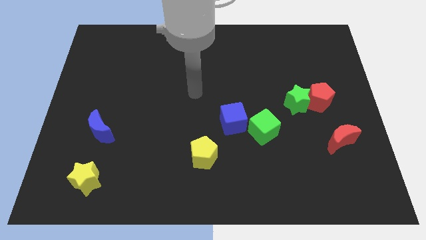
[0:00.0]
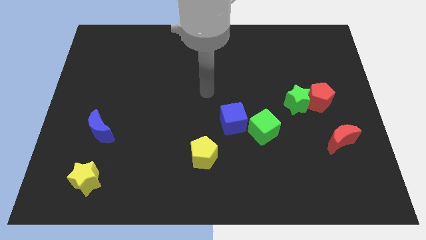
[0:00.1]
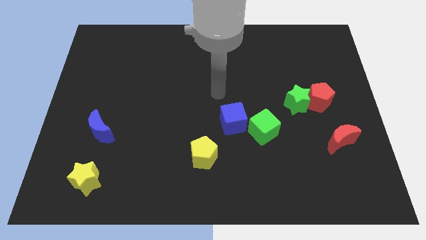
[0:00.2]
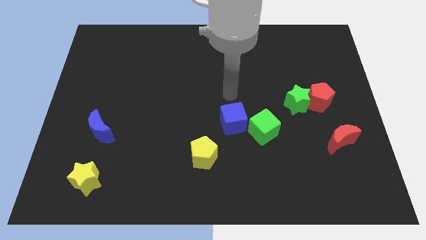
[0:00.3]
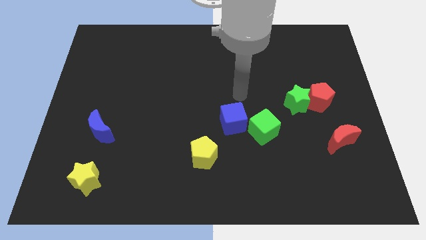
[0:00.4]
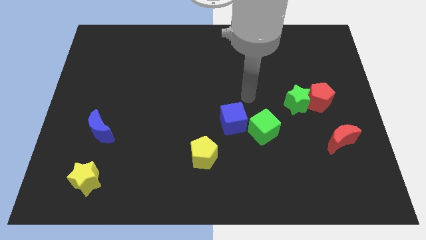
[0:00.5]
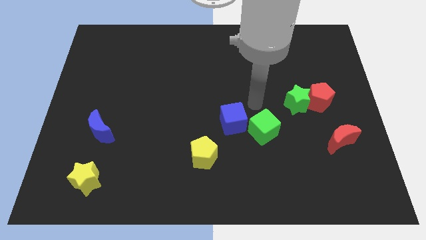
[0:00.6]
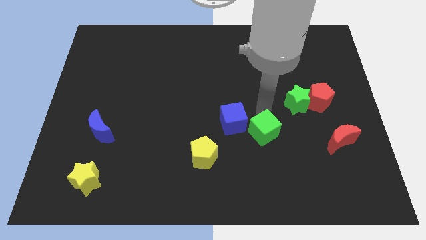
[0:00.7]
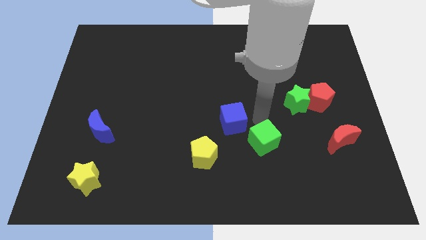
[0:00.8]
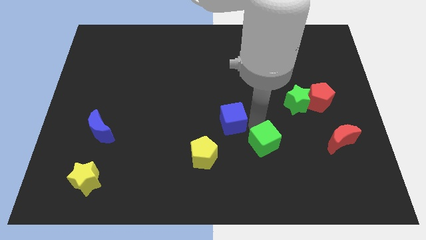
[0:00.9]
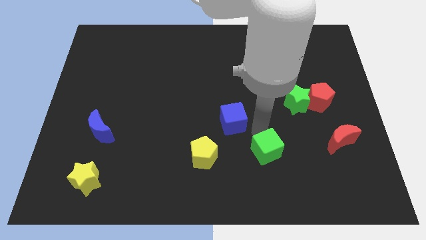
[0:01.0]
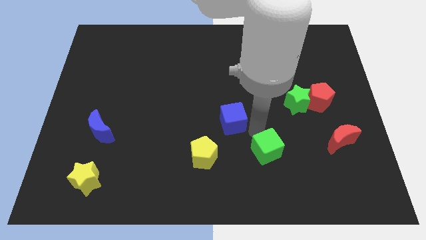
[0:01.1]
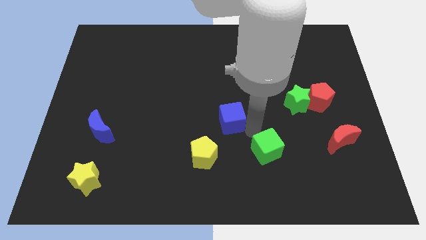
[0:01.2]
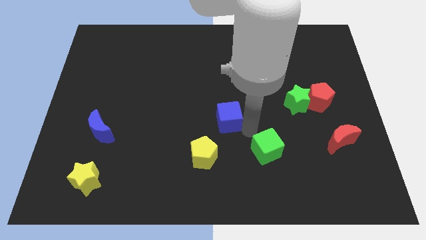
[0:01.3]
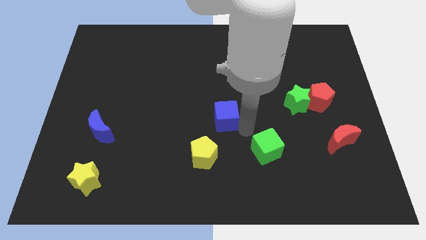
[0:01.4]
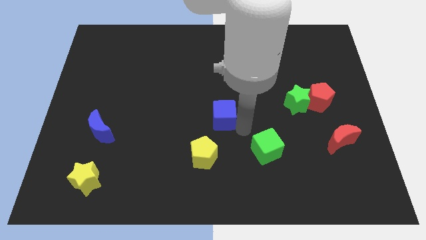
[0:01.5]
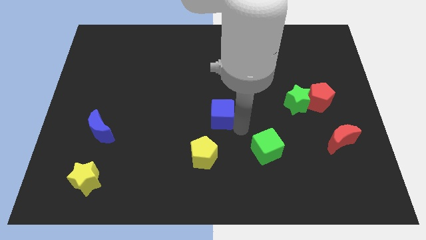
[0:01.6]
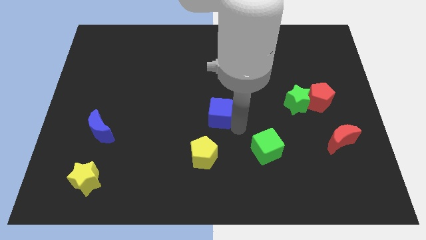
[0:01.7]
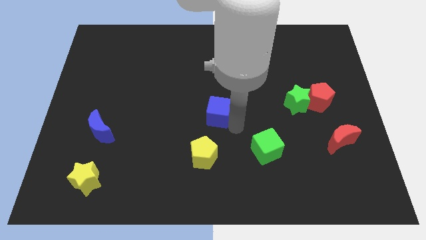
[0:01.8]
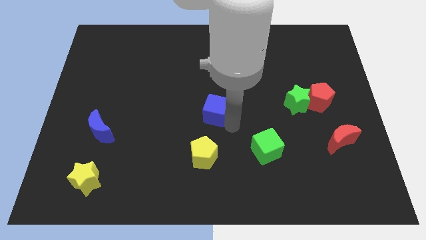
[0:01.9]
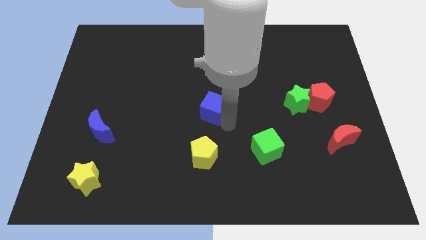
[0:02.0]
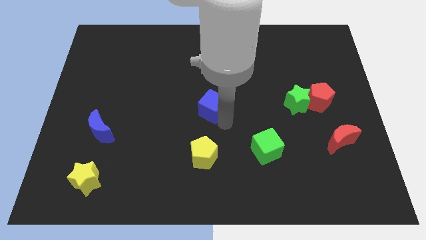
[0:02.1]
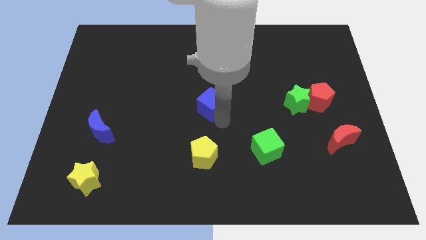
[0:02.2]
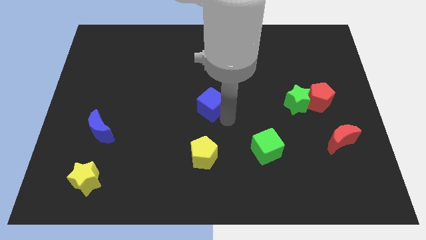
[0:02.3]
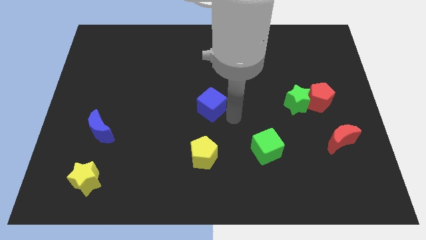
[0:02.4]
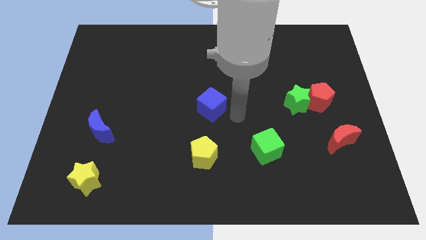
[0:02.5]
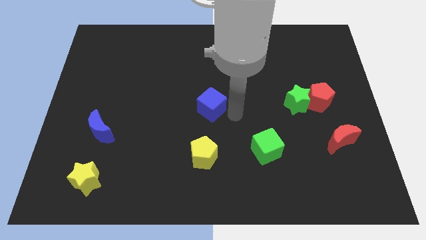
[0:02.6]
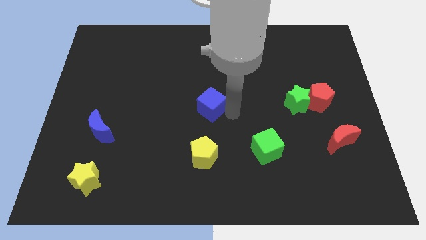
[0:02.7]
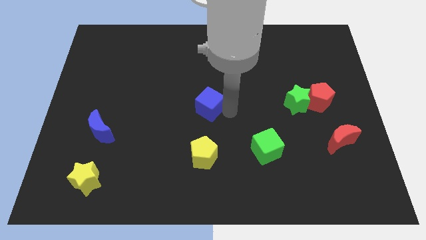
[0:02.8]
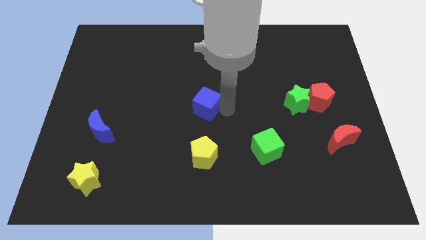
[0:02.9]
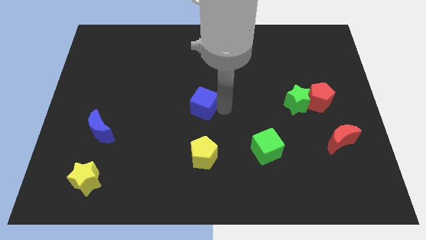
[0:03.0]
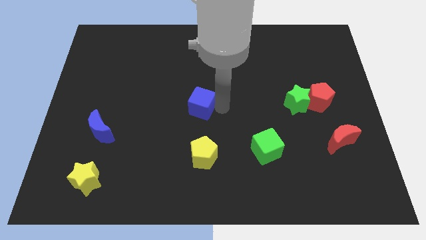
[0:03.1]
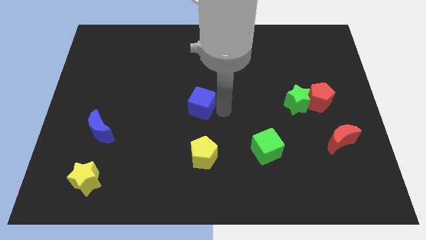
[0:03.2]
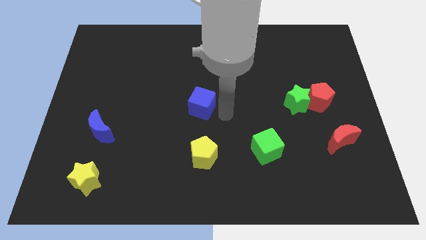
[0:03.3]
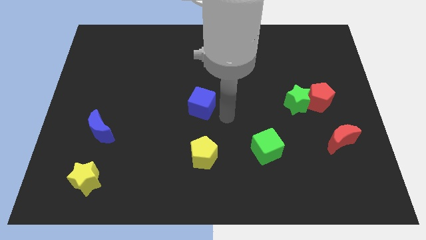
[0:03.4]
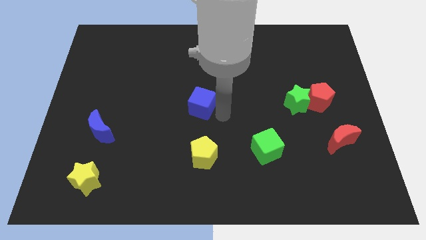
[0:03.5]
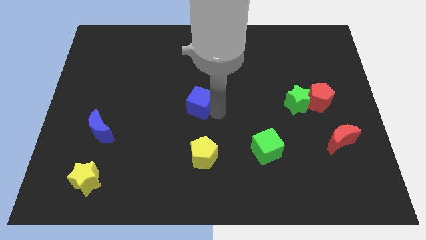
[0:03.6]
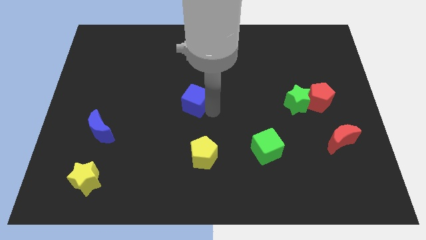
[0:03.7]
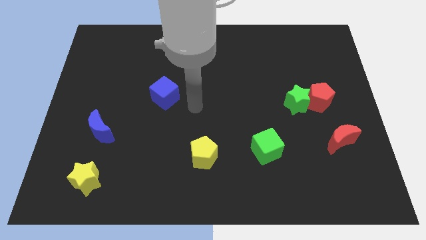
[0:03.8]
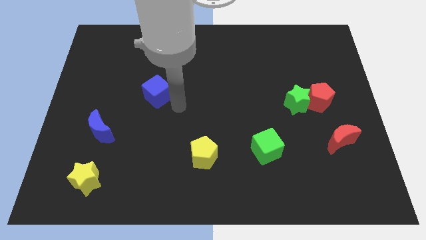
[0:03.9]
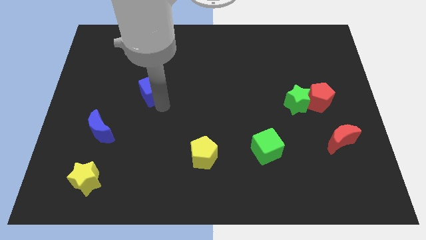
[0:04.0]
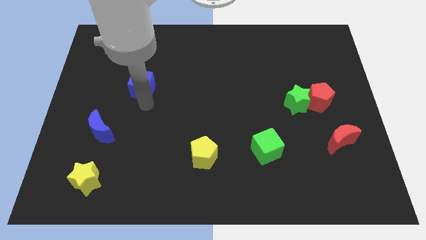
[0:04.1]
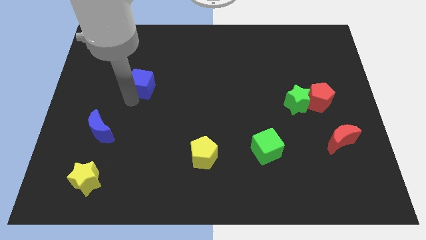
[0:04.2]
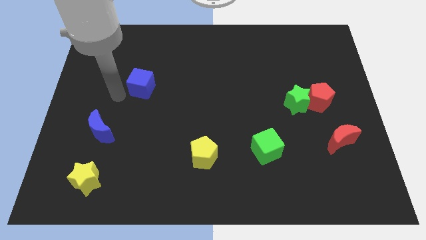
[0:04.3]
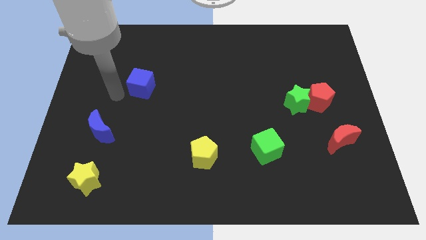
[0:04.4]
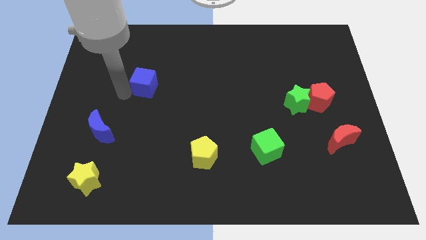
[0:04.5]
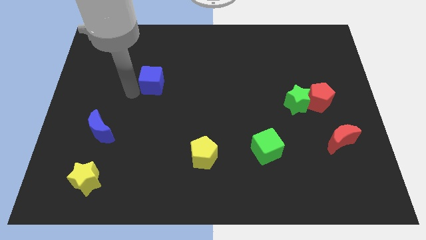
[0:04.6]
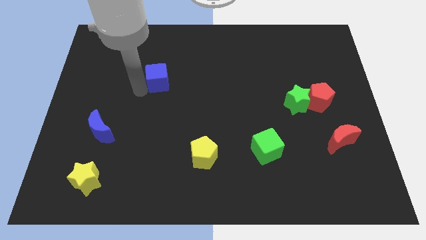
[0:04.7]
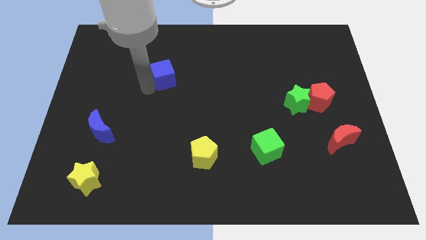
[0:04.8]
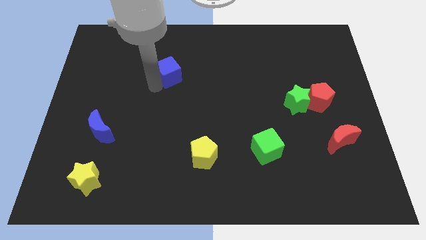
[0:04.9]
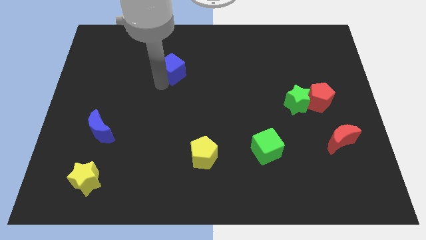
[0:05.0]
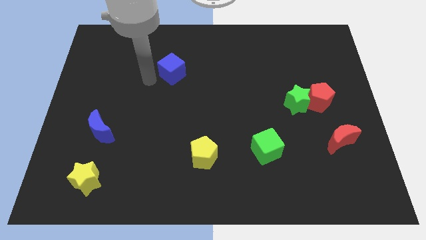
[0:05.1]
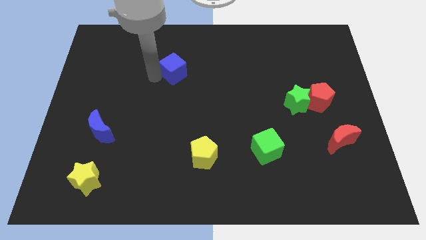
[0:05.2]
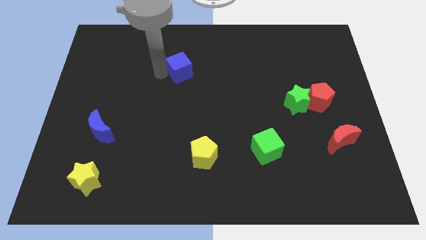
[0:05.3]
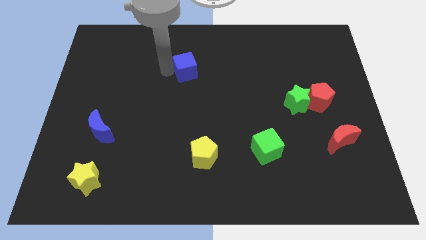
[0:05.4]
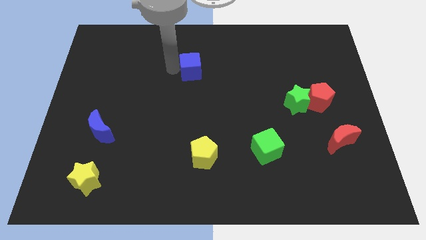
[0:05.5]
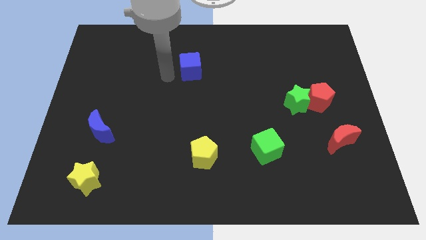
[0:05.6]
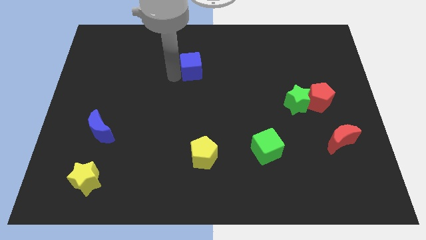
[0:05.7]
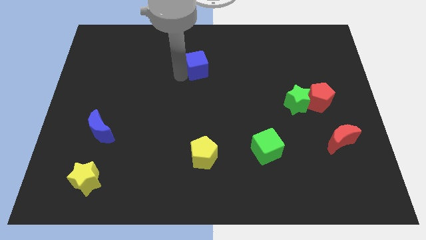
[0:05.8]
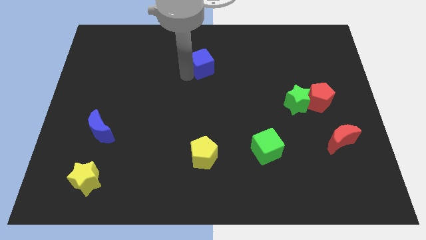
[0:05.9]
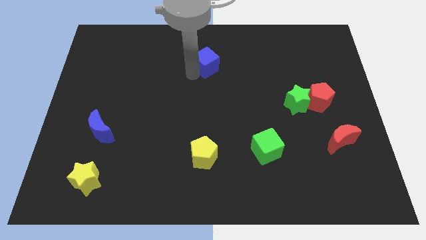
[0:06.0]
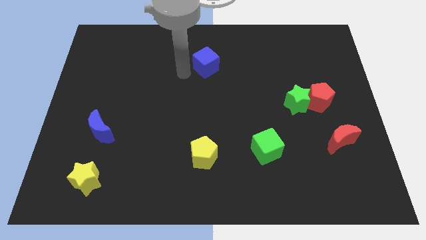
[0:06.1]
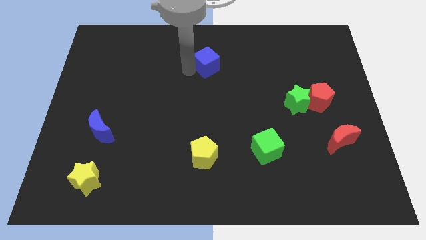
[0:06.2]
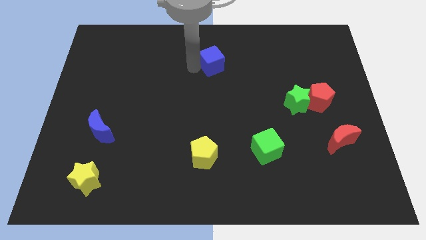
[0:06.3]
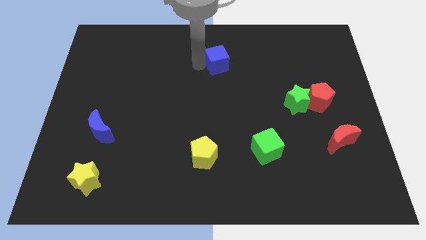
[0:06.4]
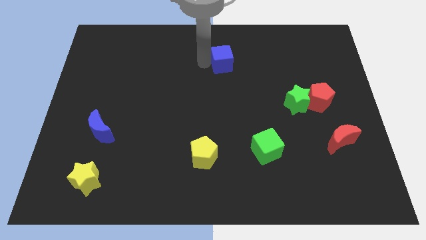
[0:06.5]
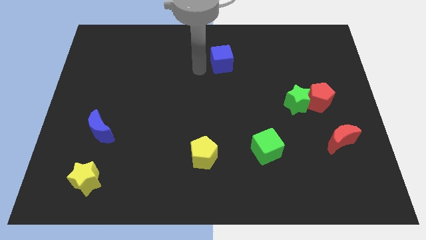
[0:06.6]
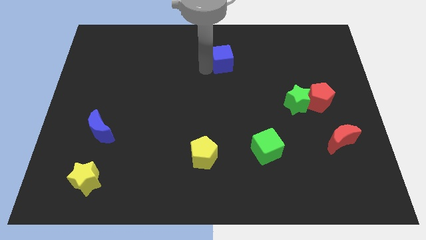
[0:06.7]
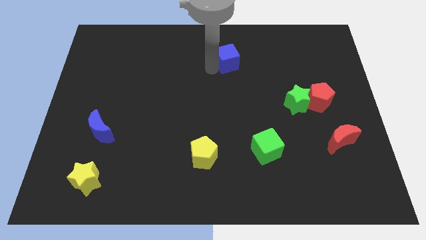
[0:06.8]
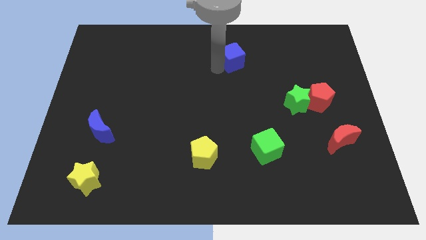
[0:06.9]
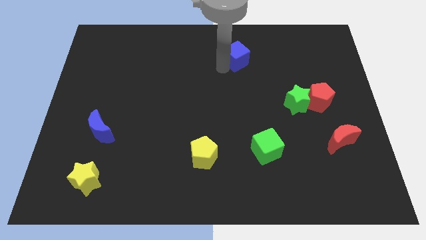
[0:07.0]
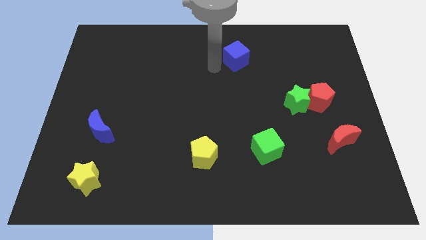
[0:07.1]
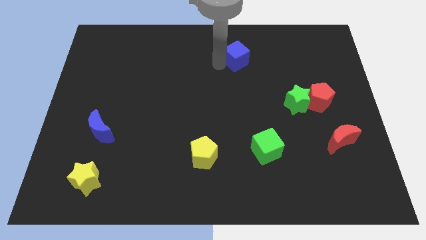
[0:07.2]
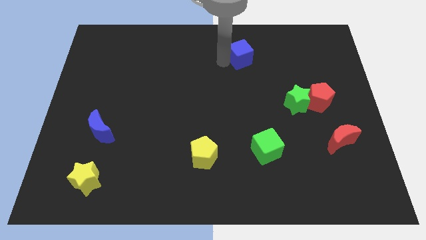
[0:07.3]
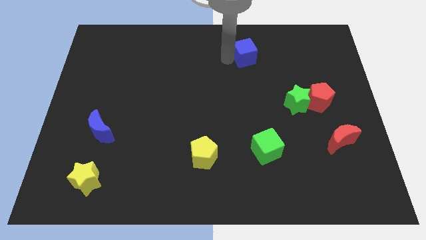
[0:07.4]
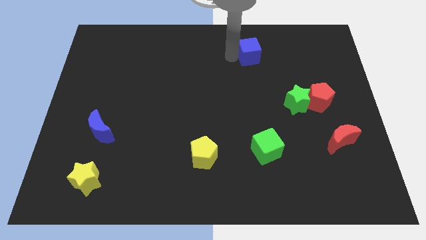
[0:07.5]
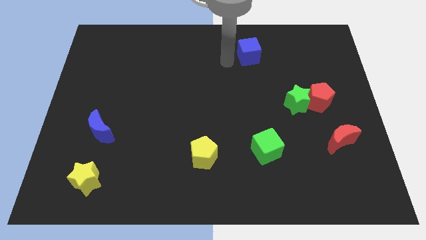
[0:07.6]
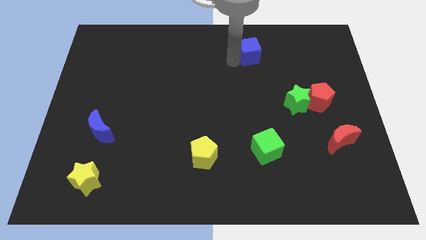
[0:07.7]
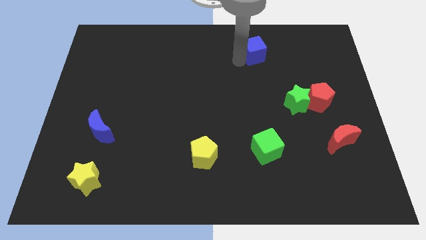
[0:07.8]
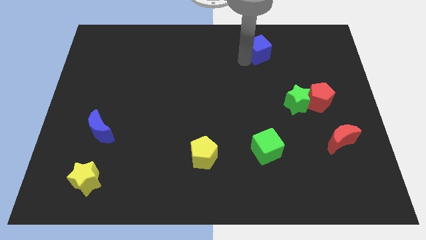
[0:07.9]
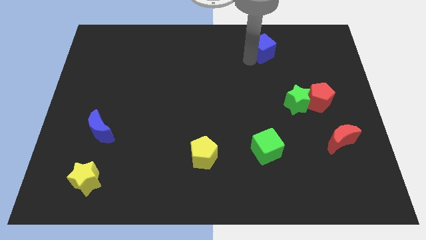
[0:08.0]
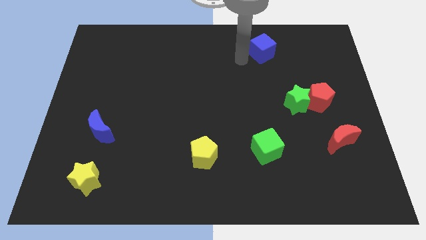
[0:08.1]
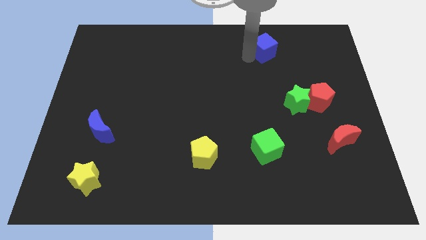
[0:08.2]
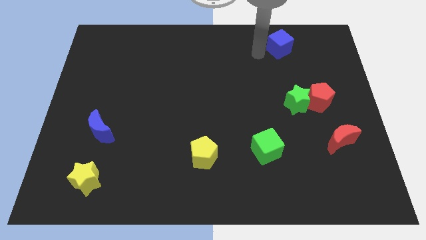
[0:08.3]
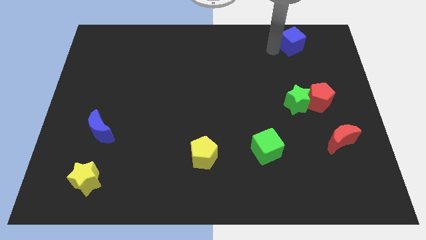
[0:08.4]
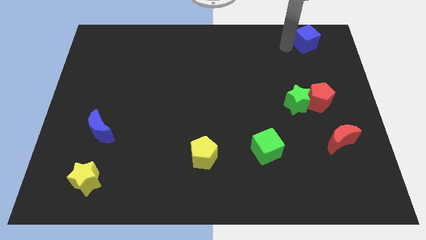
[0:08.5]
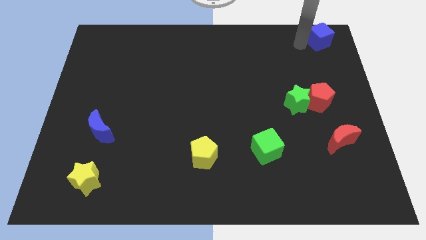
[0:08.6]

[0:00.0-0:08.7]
push the blue cube to the top right corner
